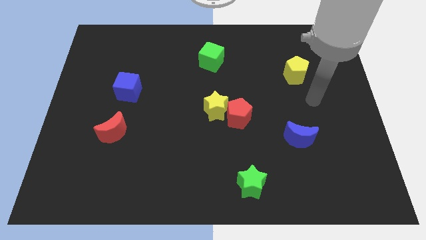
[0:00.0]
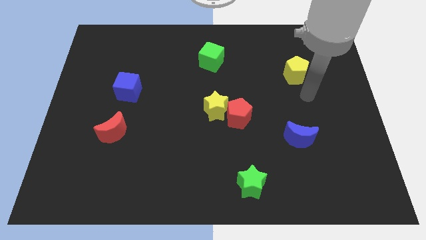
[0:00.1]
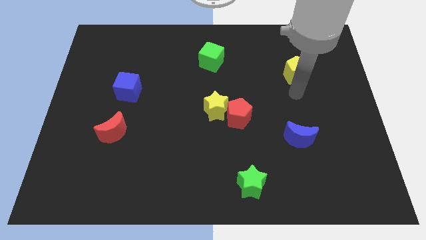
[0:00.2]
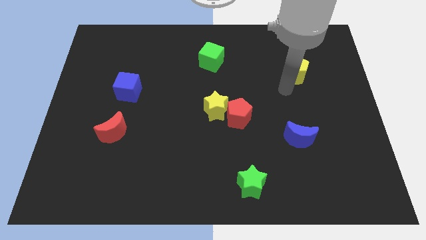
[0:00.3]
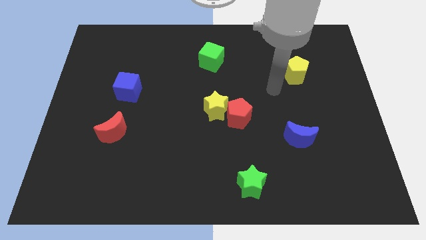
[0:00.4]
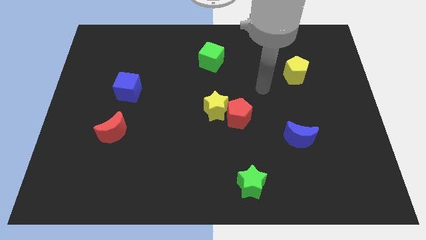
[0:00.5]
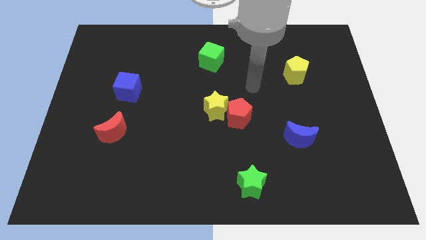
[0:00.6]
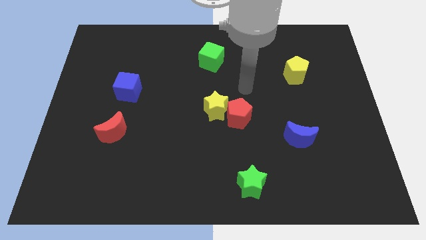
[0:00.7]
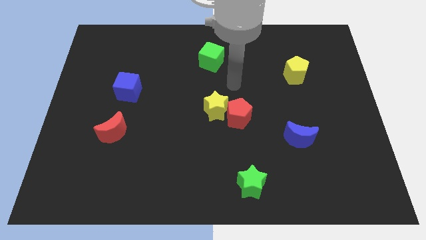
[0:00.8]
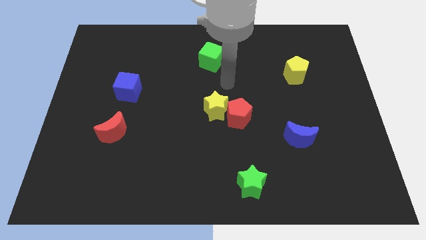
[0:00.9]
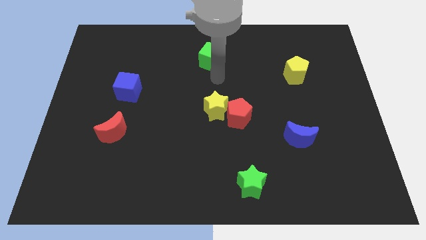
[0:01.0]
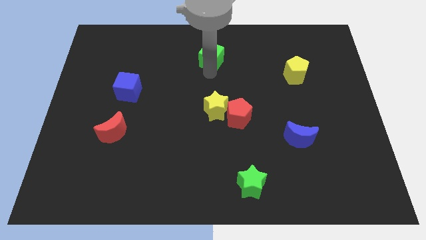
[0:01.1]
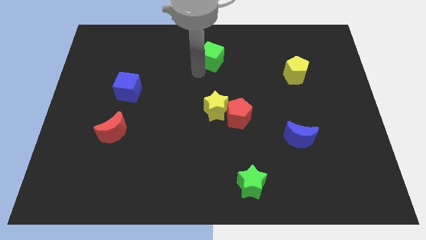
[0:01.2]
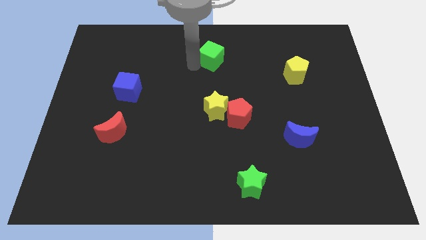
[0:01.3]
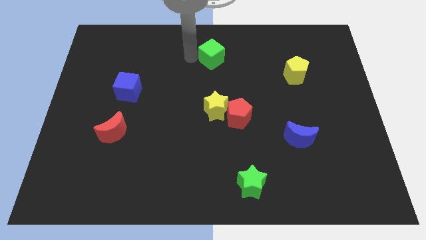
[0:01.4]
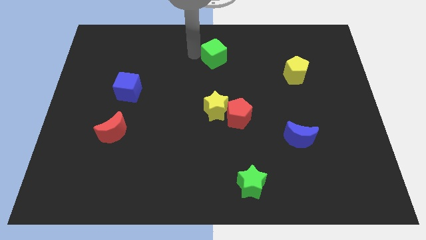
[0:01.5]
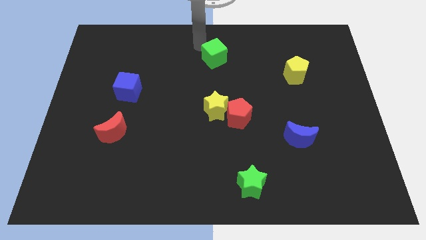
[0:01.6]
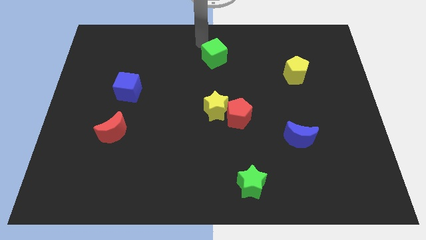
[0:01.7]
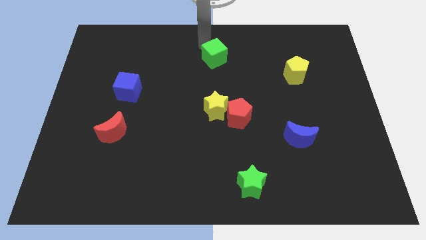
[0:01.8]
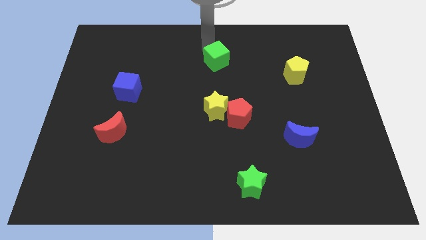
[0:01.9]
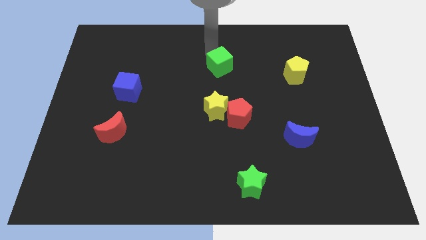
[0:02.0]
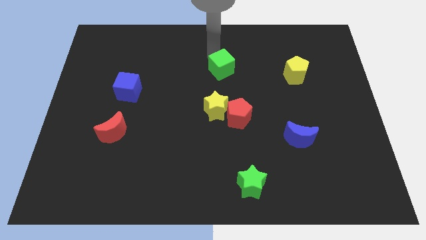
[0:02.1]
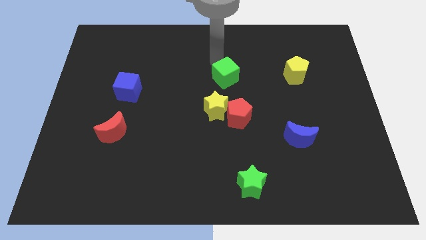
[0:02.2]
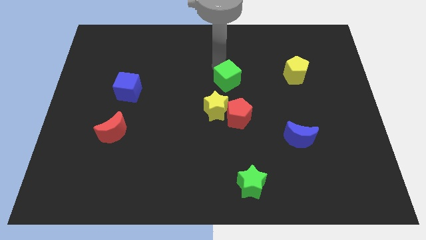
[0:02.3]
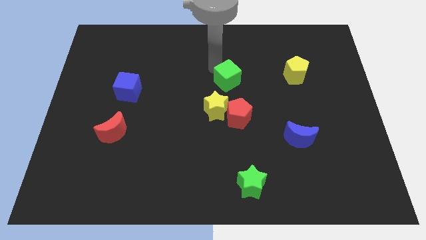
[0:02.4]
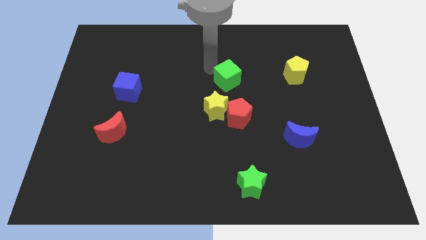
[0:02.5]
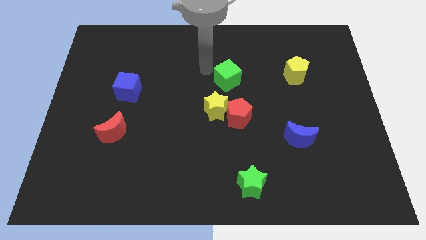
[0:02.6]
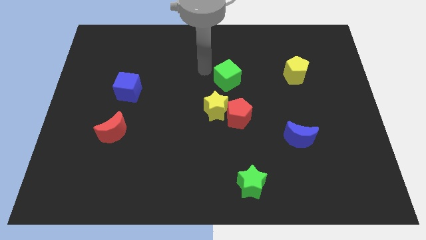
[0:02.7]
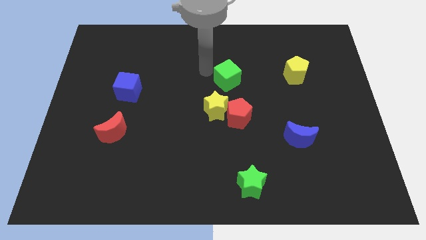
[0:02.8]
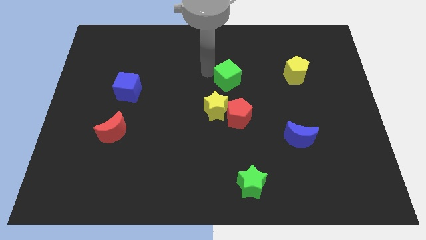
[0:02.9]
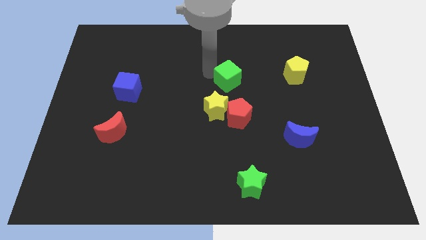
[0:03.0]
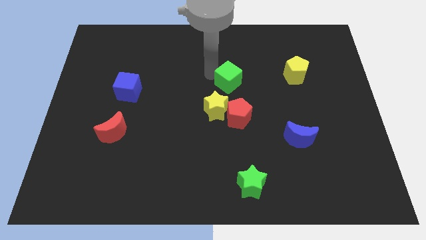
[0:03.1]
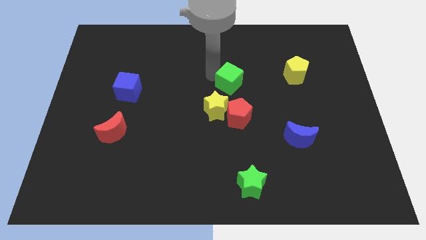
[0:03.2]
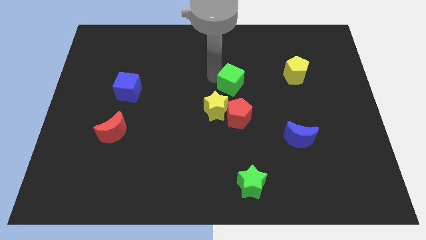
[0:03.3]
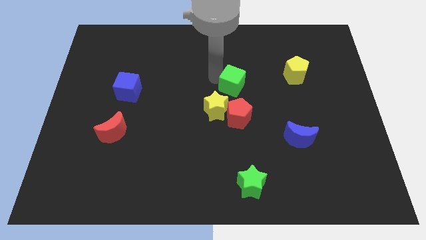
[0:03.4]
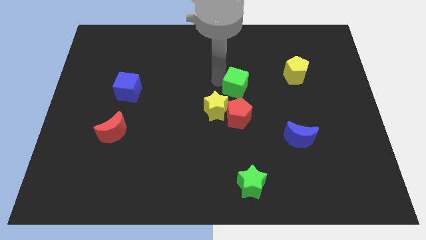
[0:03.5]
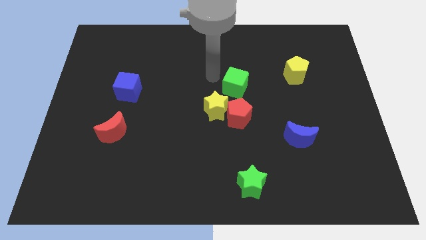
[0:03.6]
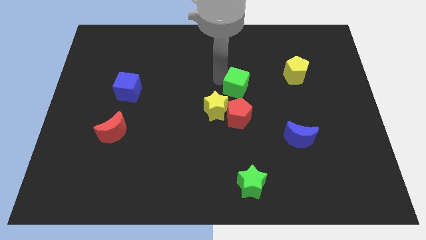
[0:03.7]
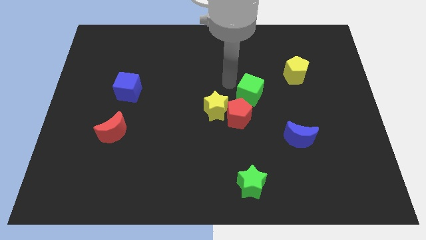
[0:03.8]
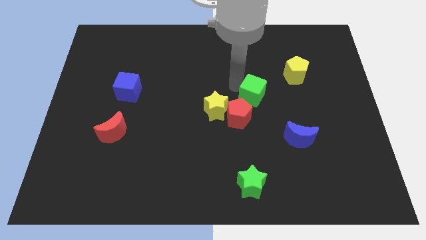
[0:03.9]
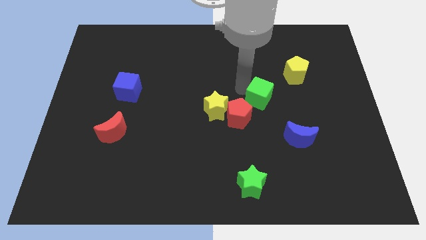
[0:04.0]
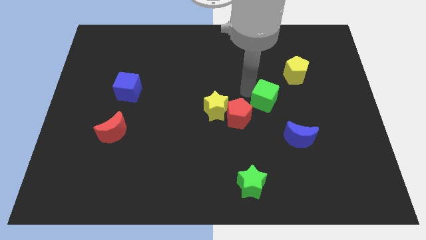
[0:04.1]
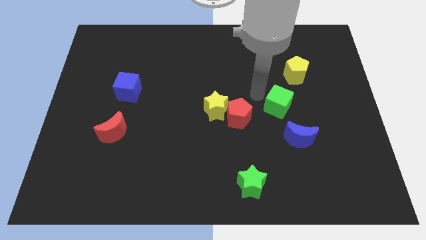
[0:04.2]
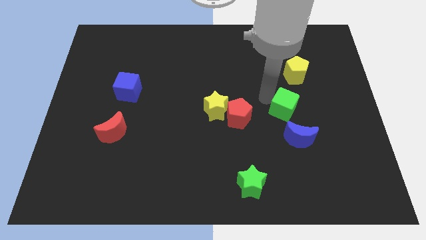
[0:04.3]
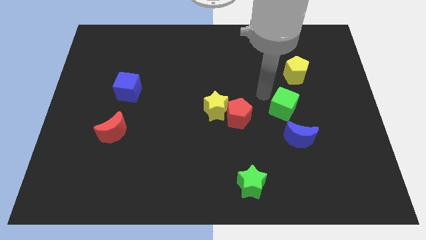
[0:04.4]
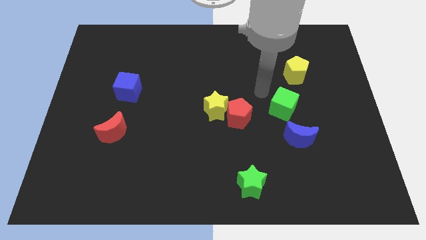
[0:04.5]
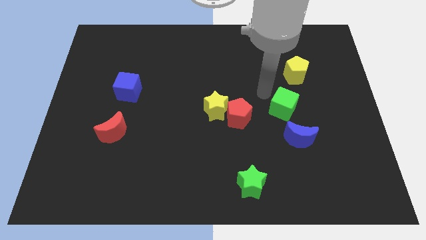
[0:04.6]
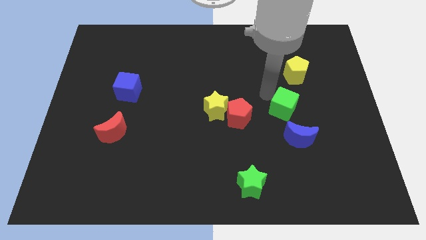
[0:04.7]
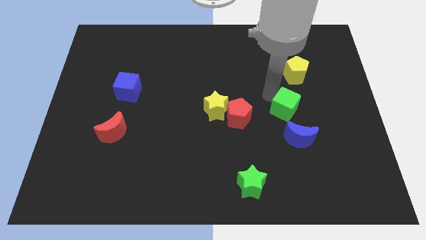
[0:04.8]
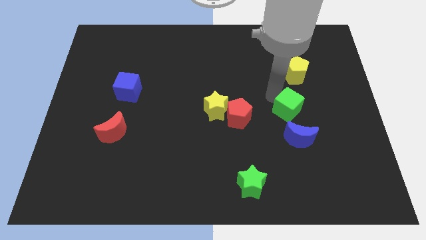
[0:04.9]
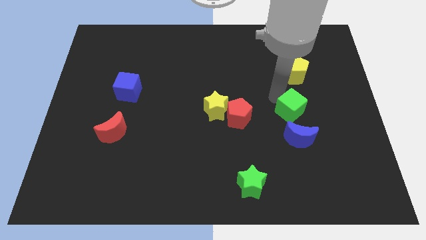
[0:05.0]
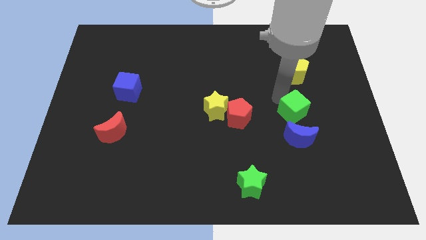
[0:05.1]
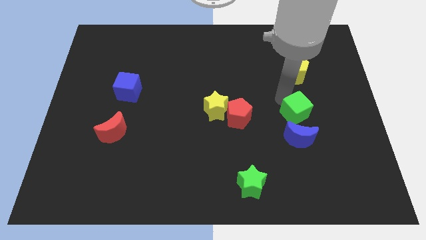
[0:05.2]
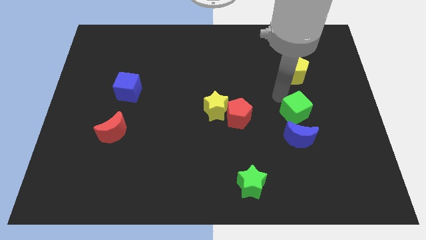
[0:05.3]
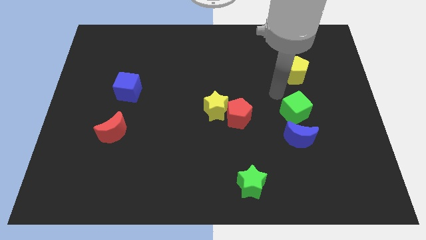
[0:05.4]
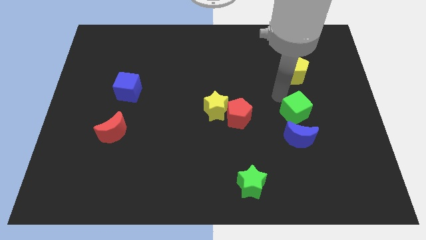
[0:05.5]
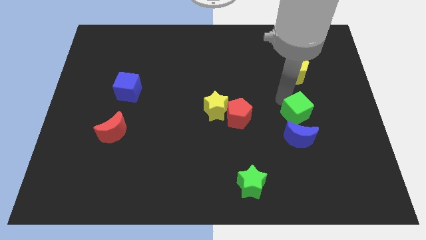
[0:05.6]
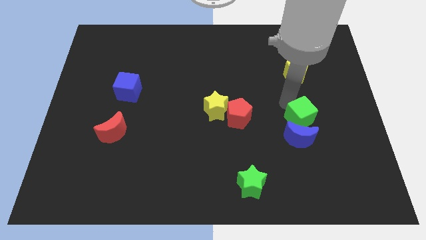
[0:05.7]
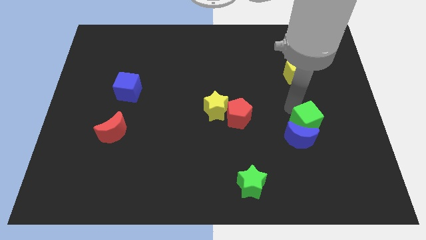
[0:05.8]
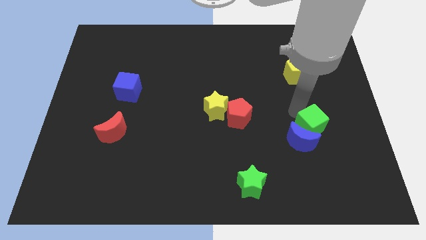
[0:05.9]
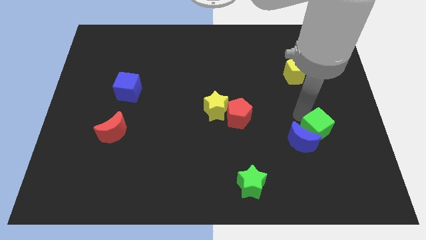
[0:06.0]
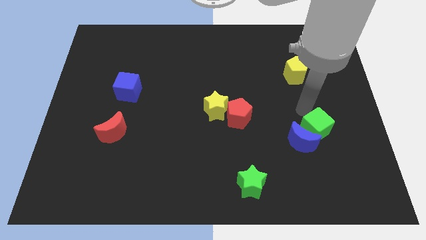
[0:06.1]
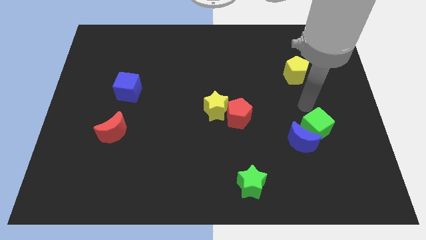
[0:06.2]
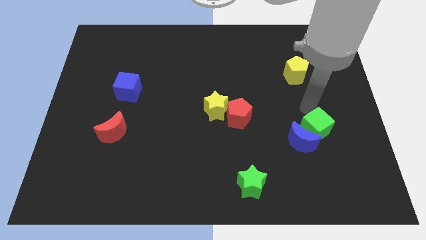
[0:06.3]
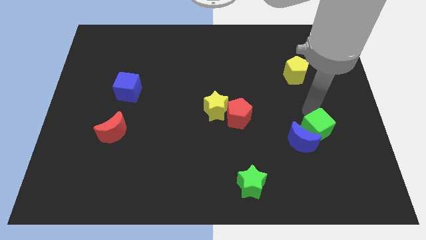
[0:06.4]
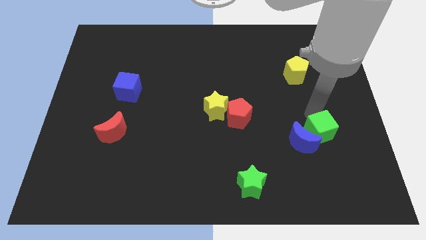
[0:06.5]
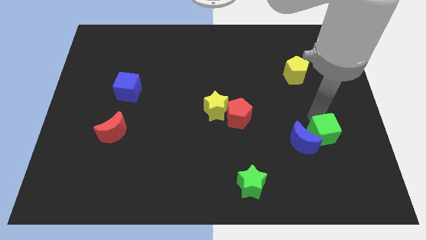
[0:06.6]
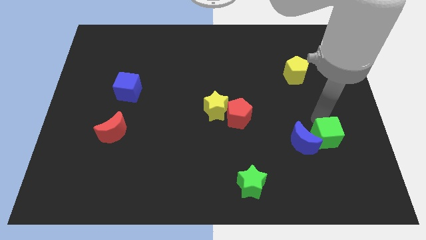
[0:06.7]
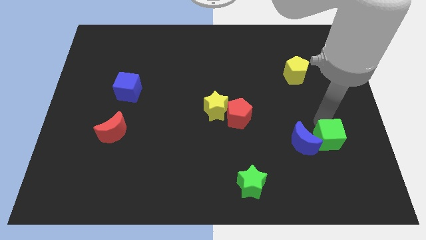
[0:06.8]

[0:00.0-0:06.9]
push the green cube to the bottom right side of the blue moon

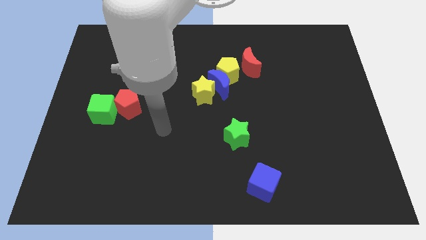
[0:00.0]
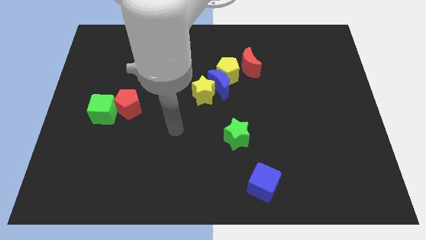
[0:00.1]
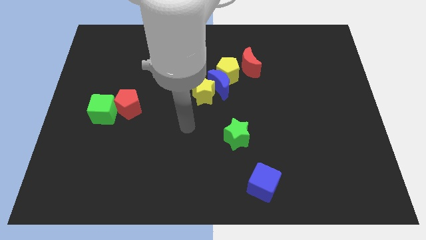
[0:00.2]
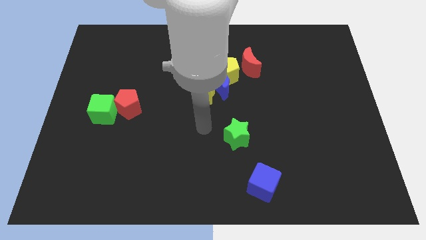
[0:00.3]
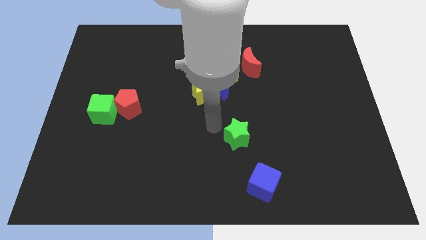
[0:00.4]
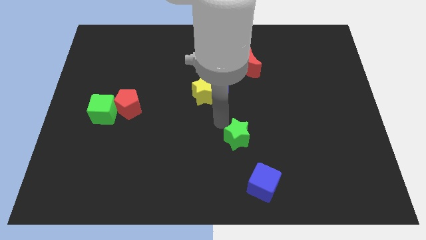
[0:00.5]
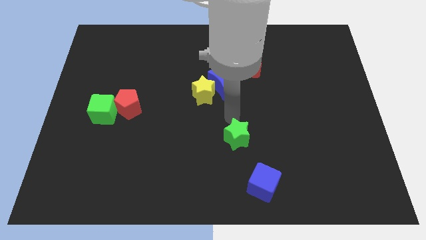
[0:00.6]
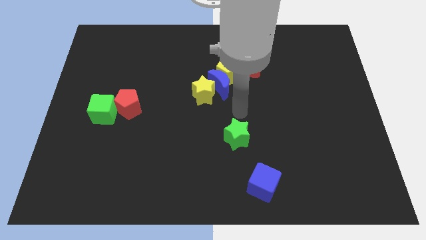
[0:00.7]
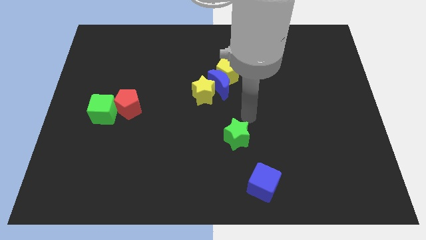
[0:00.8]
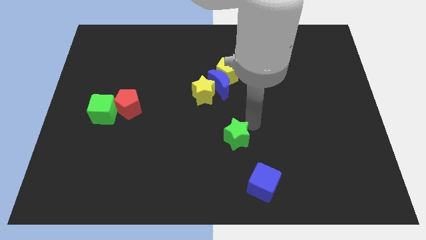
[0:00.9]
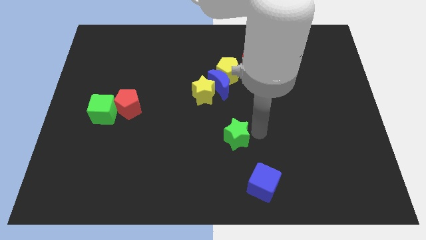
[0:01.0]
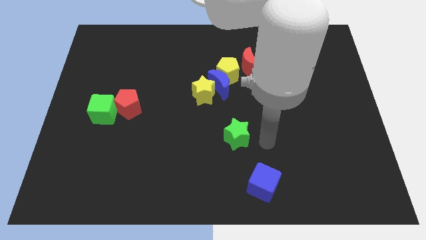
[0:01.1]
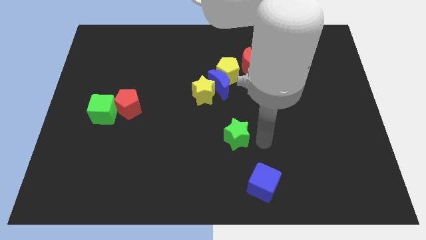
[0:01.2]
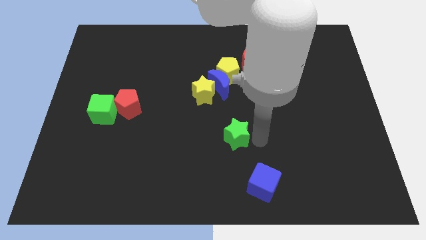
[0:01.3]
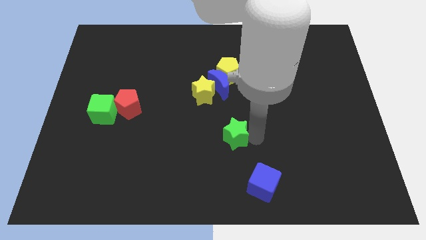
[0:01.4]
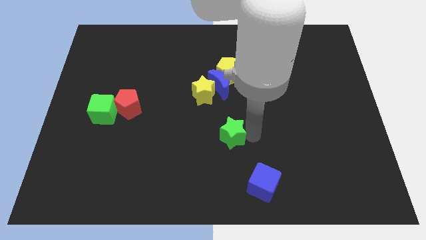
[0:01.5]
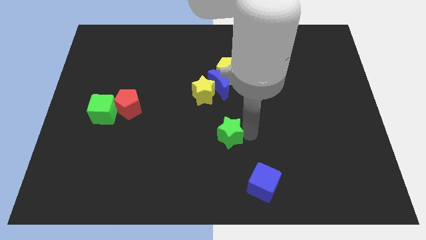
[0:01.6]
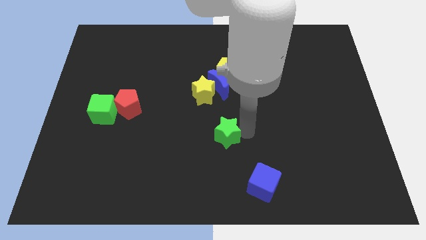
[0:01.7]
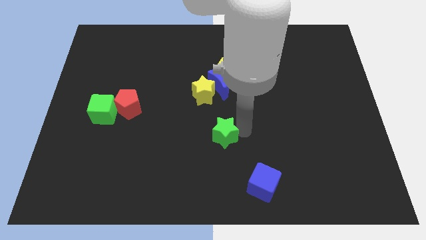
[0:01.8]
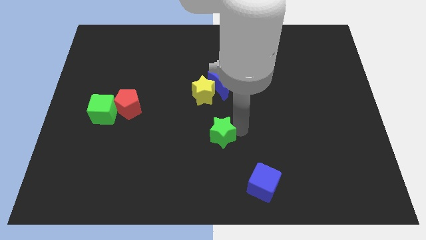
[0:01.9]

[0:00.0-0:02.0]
put the green star to the bottom of the yellow star
